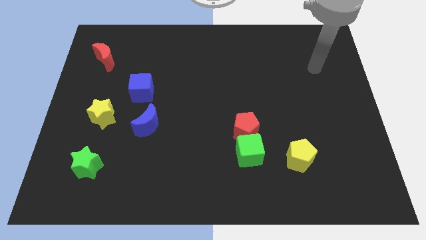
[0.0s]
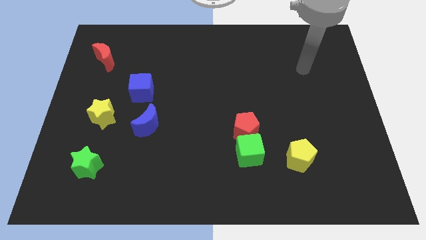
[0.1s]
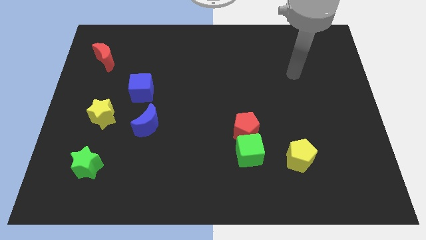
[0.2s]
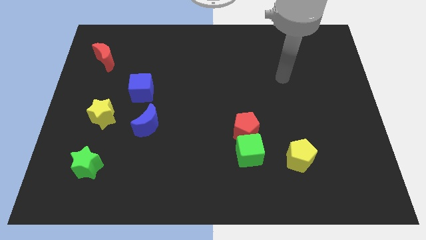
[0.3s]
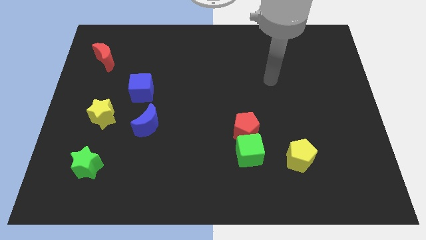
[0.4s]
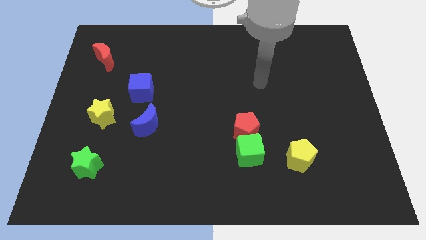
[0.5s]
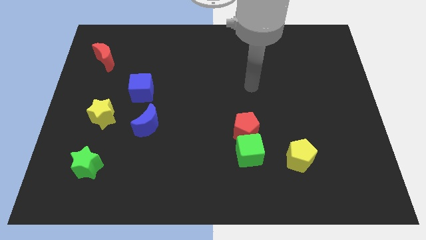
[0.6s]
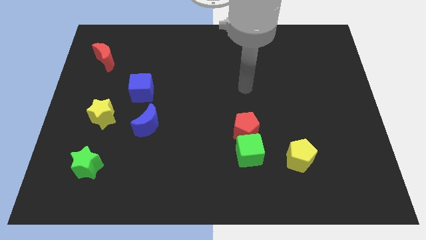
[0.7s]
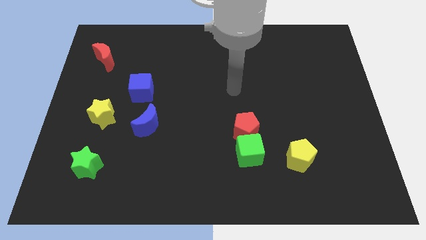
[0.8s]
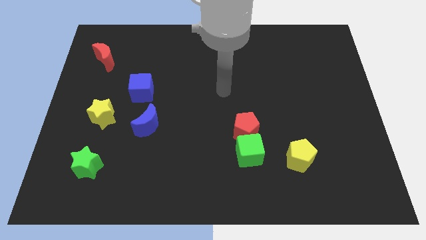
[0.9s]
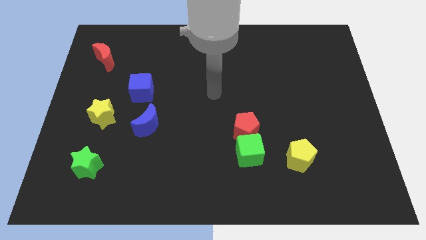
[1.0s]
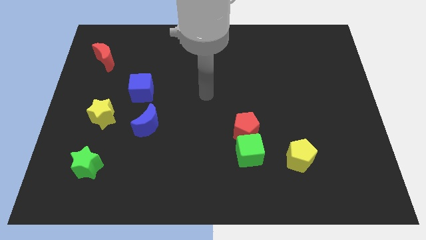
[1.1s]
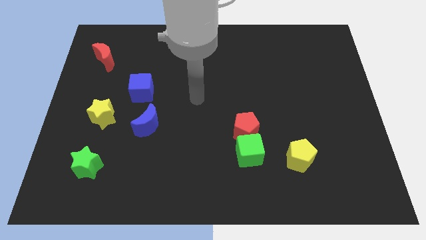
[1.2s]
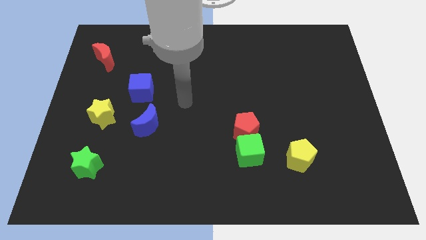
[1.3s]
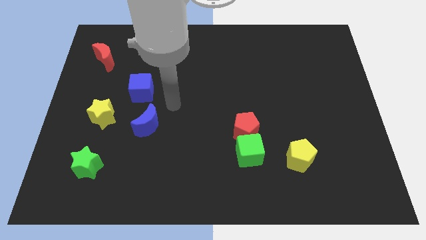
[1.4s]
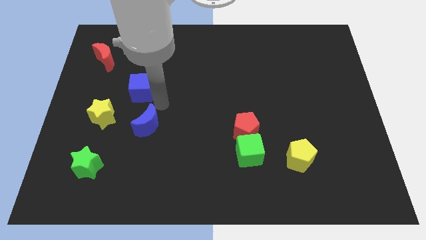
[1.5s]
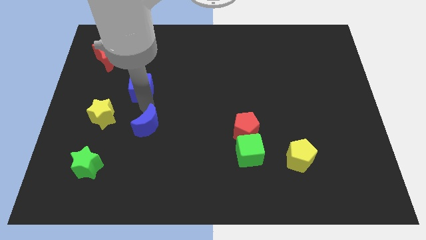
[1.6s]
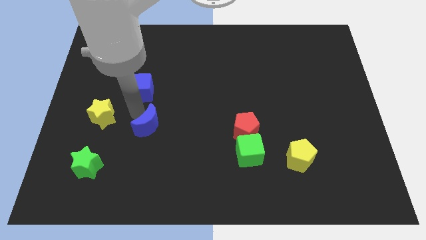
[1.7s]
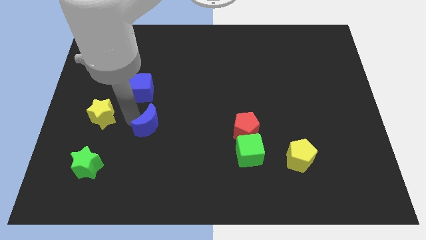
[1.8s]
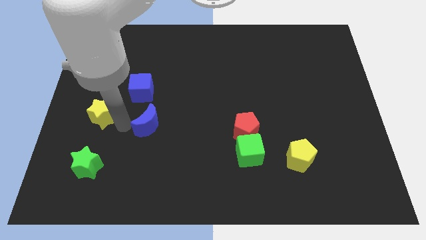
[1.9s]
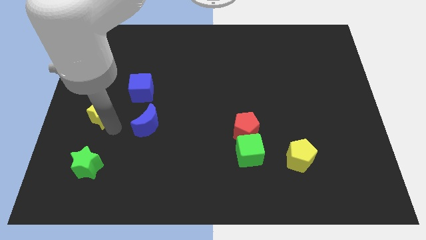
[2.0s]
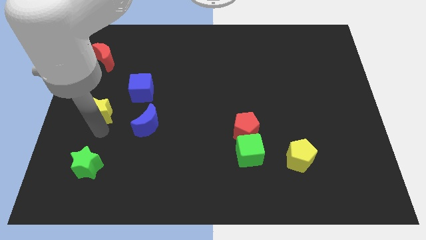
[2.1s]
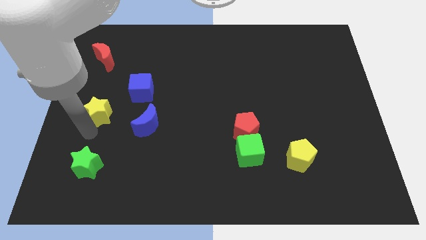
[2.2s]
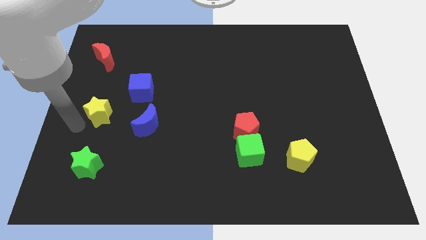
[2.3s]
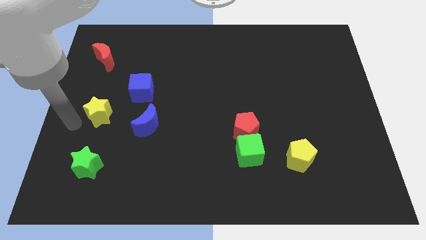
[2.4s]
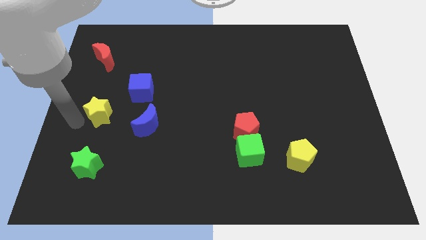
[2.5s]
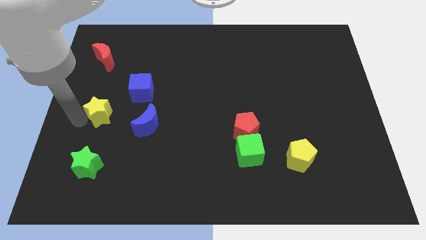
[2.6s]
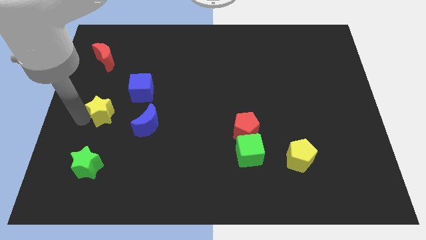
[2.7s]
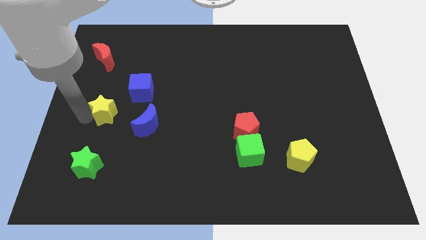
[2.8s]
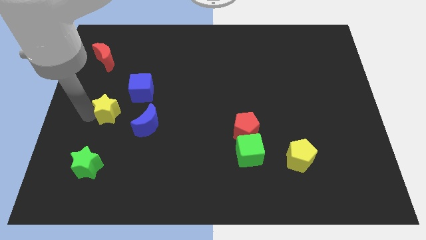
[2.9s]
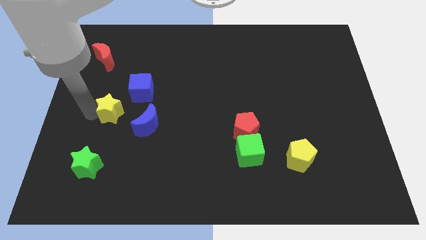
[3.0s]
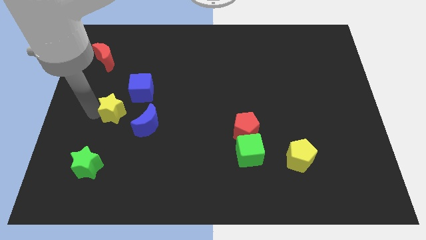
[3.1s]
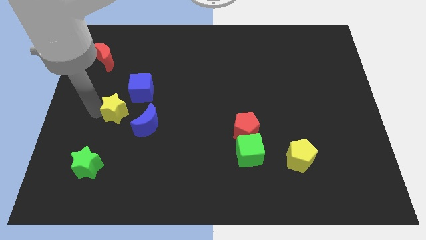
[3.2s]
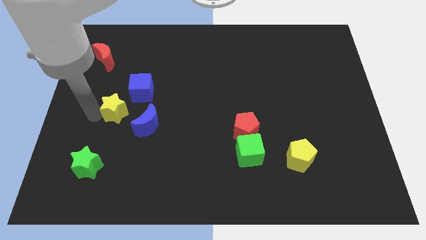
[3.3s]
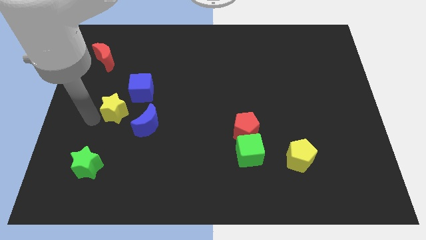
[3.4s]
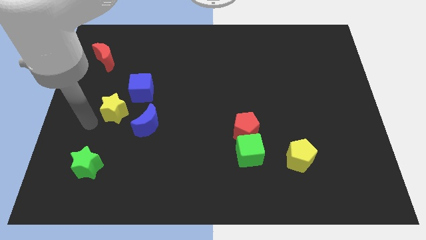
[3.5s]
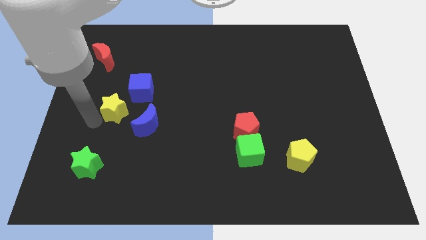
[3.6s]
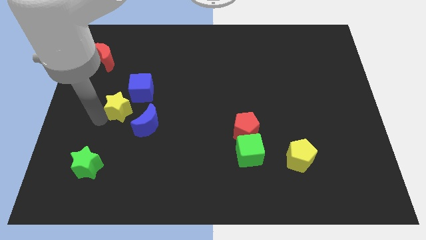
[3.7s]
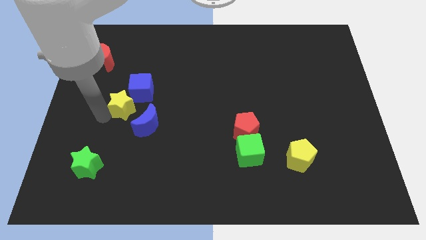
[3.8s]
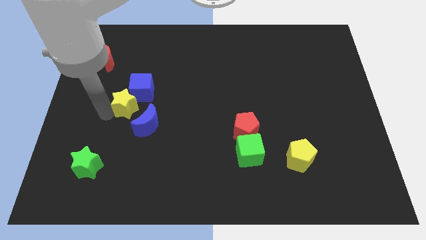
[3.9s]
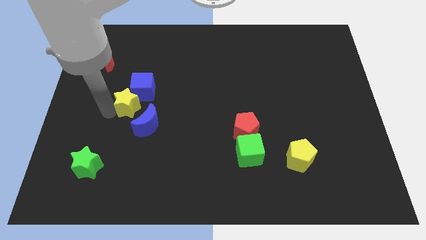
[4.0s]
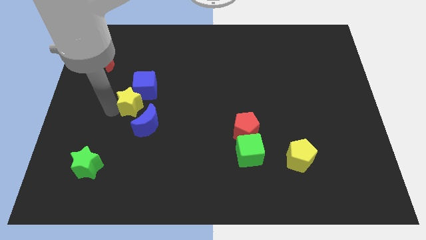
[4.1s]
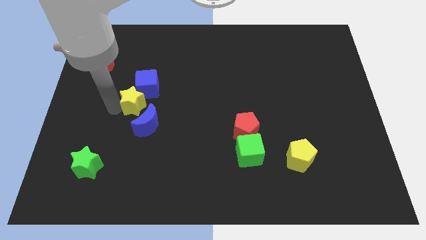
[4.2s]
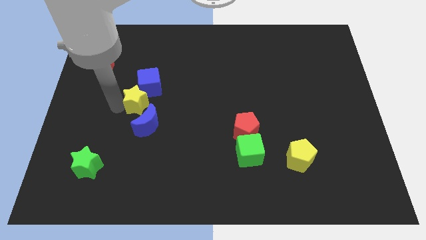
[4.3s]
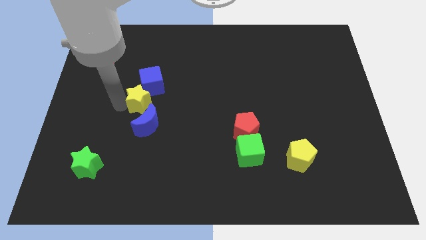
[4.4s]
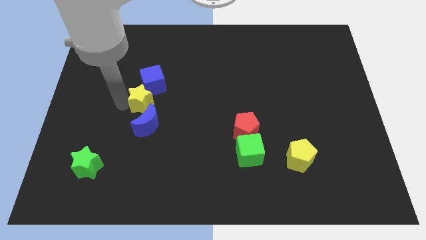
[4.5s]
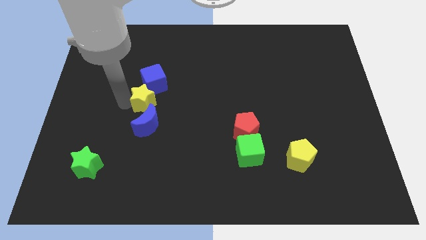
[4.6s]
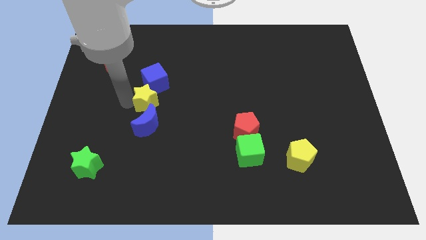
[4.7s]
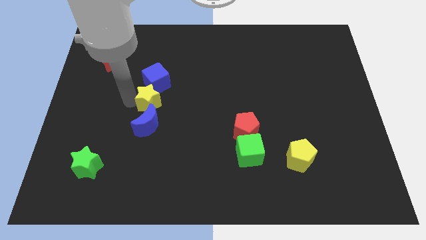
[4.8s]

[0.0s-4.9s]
slide the yellow star to the top right side of the blue moon

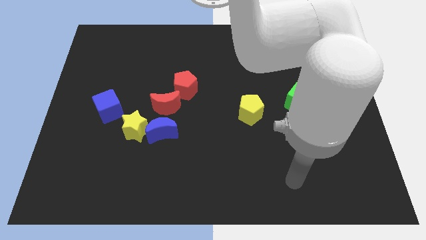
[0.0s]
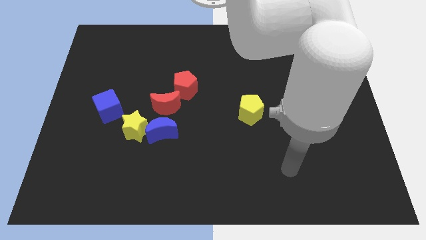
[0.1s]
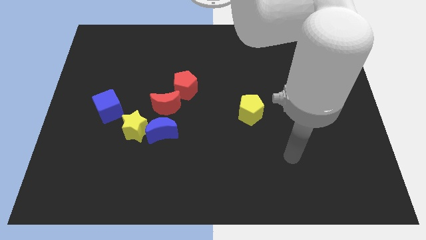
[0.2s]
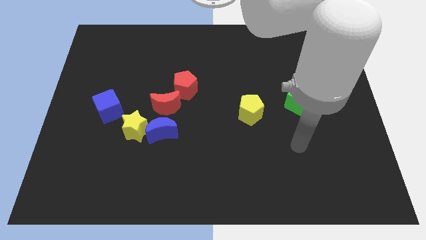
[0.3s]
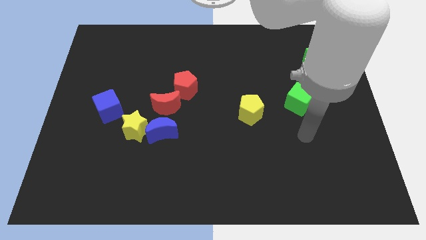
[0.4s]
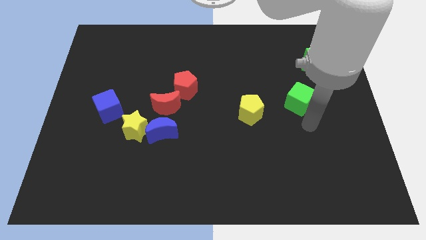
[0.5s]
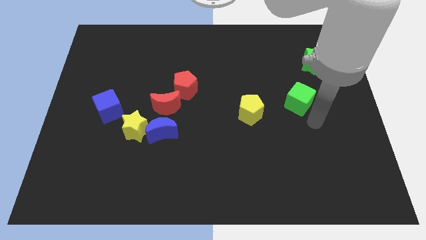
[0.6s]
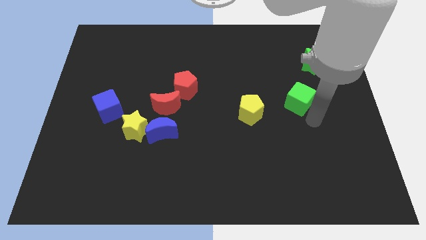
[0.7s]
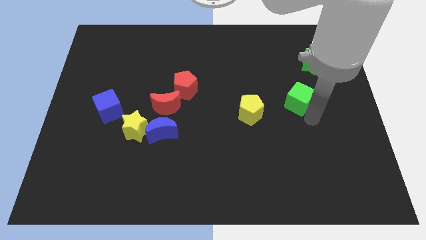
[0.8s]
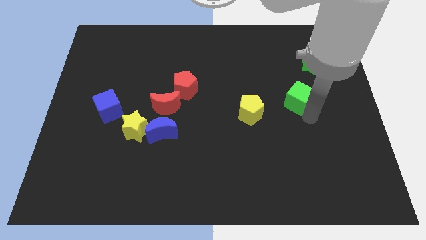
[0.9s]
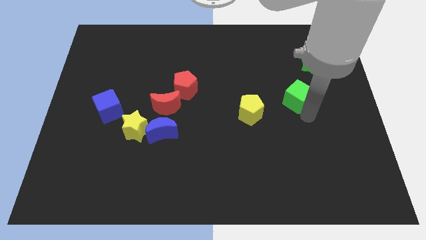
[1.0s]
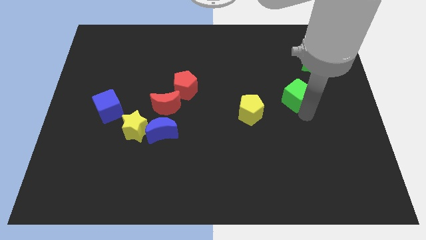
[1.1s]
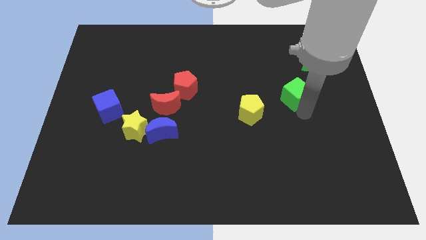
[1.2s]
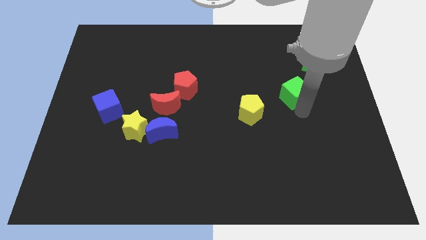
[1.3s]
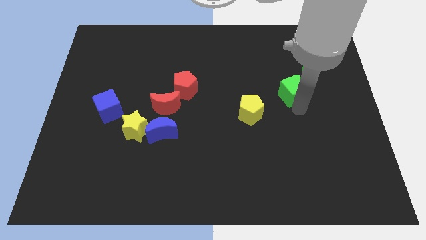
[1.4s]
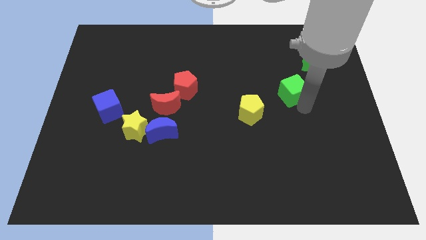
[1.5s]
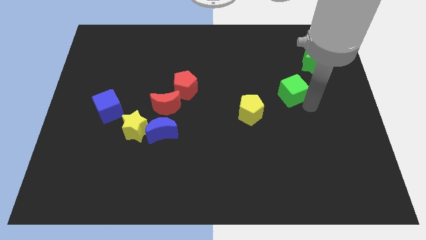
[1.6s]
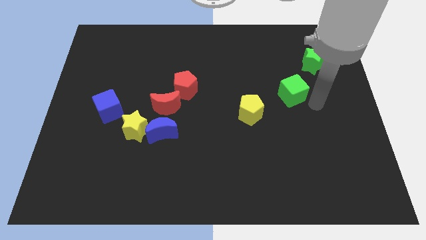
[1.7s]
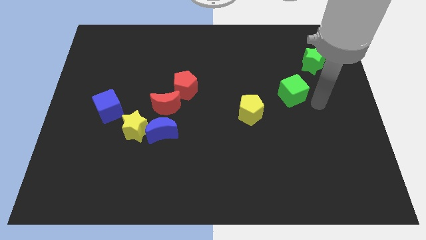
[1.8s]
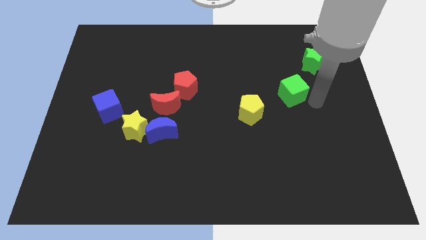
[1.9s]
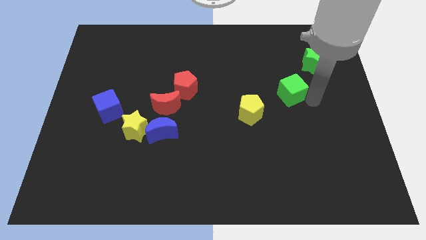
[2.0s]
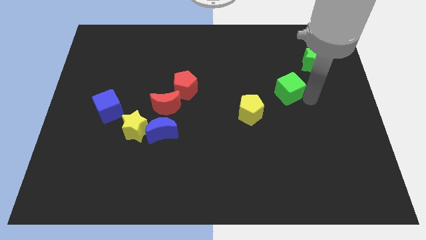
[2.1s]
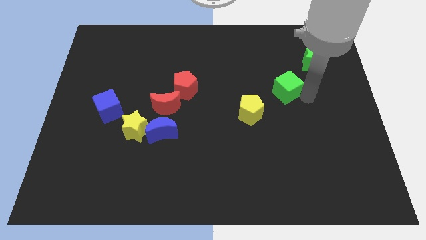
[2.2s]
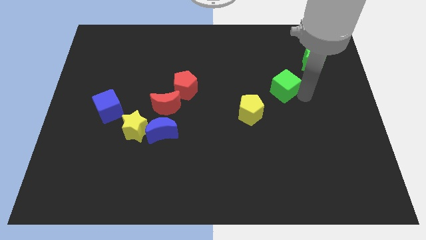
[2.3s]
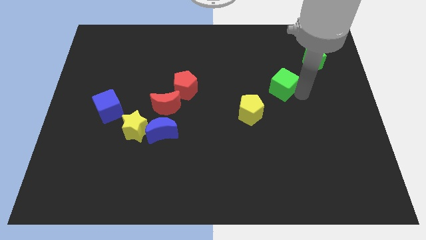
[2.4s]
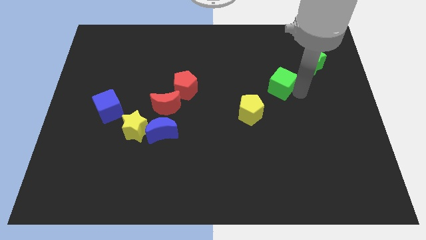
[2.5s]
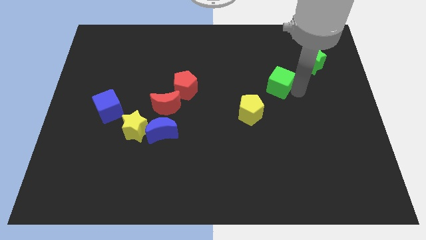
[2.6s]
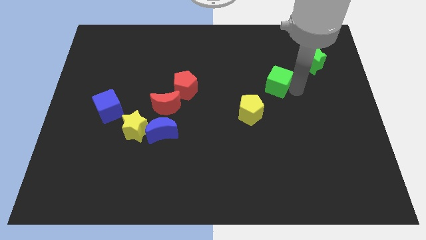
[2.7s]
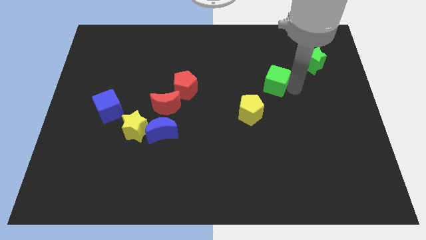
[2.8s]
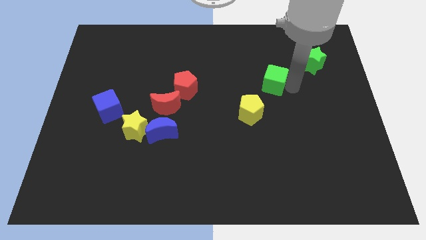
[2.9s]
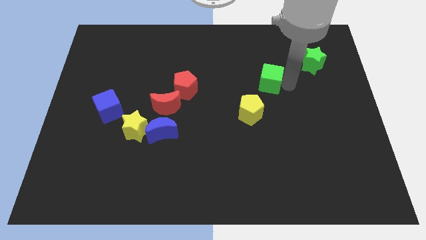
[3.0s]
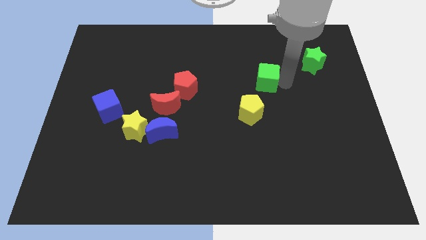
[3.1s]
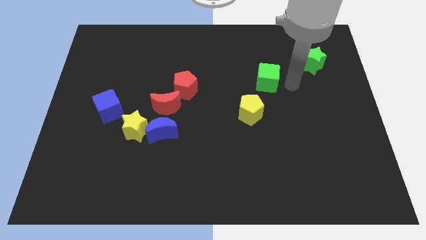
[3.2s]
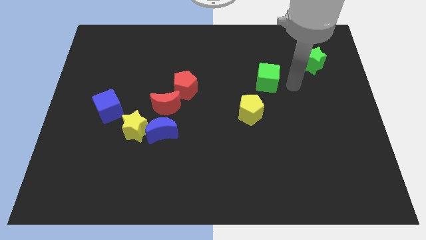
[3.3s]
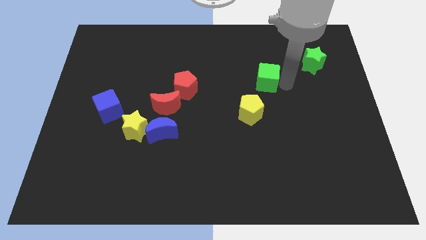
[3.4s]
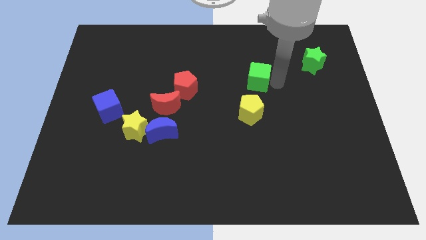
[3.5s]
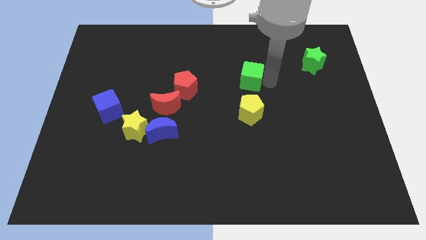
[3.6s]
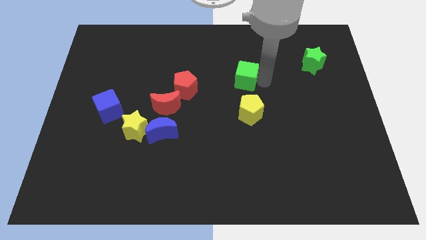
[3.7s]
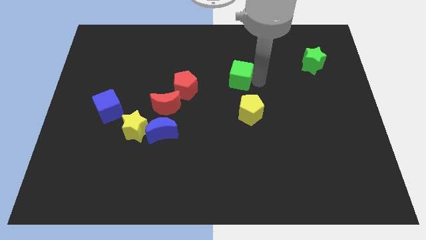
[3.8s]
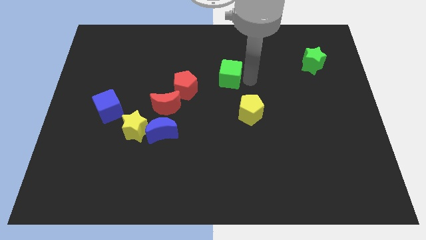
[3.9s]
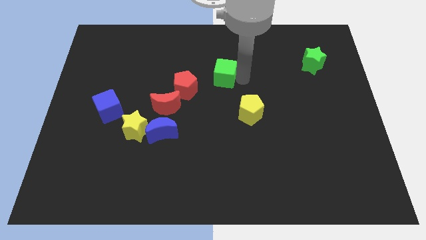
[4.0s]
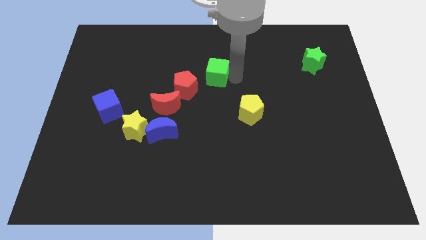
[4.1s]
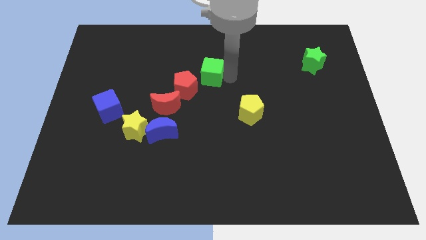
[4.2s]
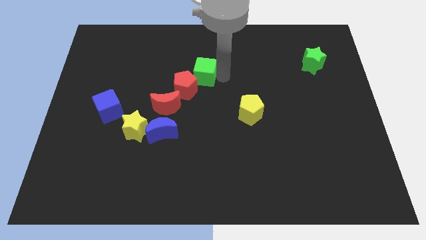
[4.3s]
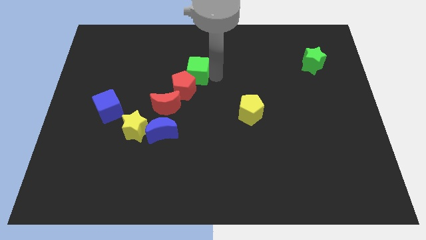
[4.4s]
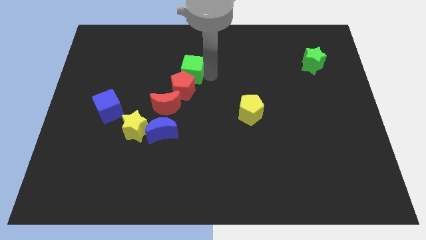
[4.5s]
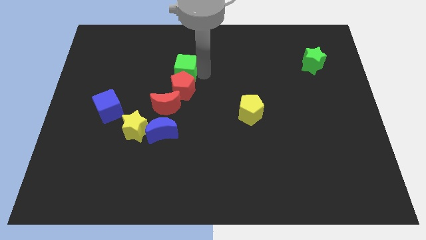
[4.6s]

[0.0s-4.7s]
push the green cube to the top left of the red pentagon
